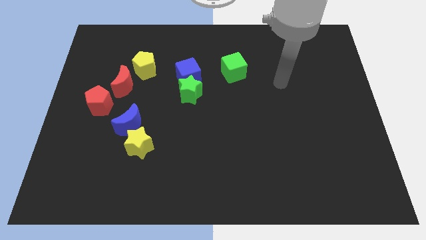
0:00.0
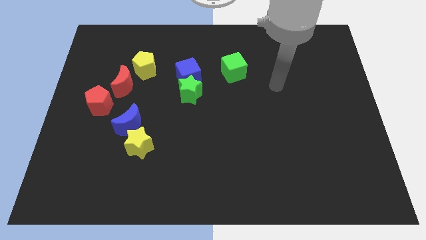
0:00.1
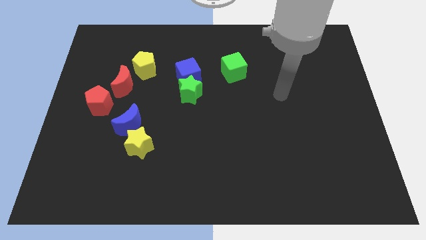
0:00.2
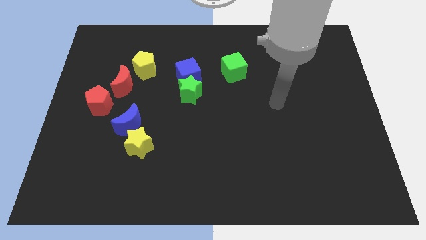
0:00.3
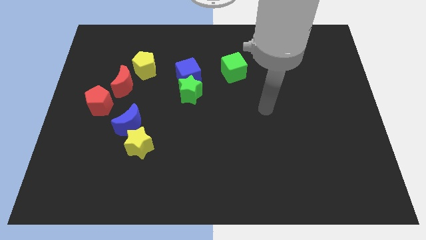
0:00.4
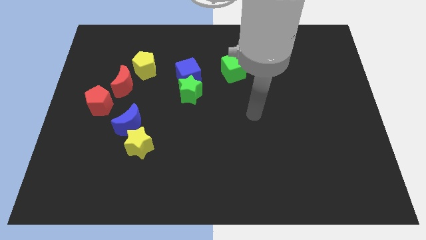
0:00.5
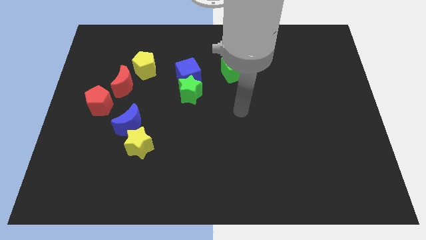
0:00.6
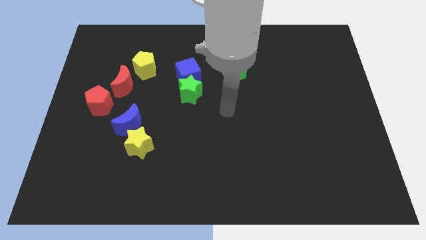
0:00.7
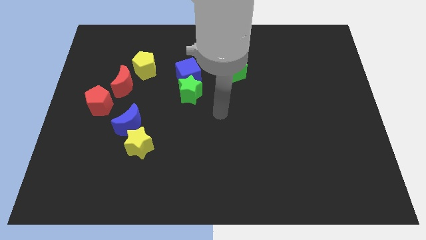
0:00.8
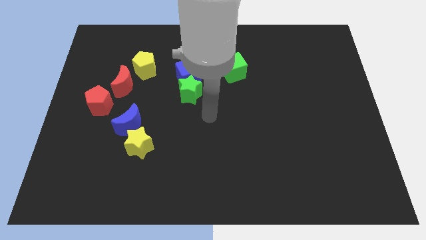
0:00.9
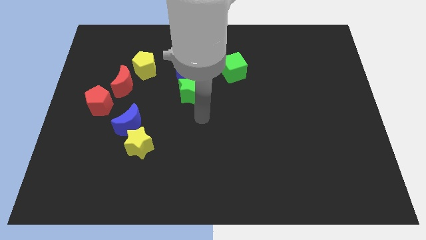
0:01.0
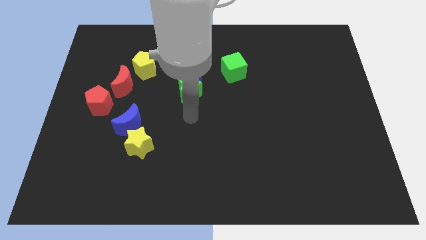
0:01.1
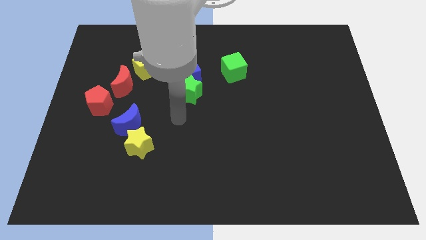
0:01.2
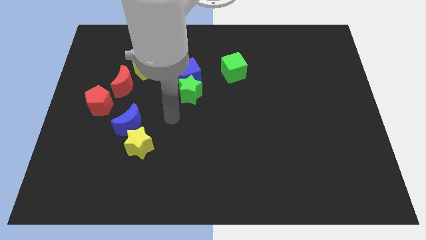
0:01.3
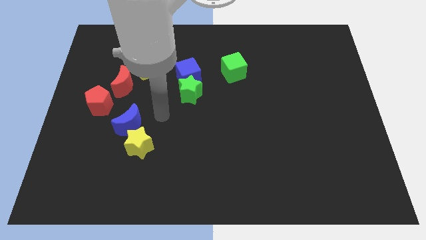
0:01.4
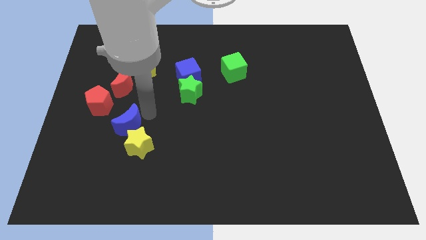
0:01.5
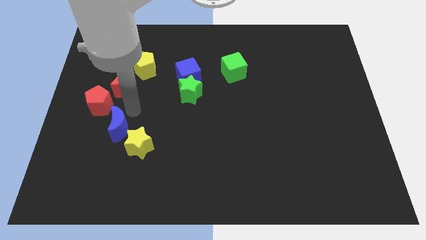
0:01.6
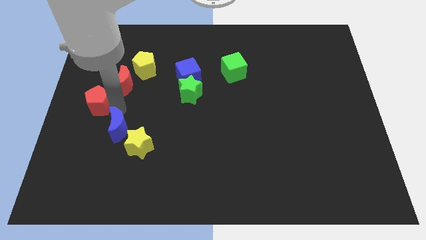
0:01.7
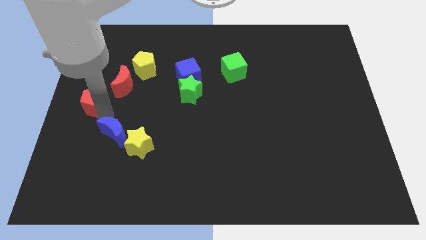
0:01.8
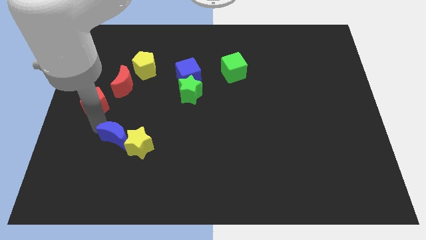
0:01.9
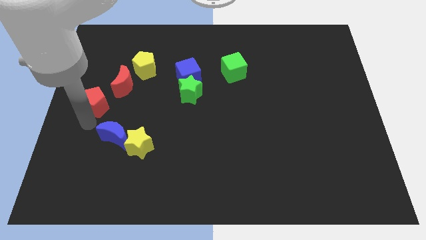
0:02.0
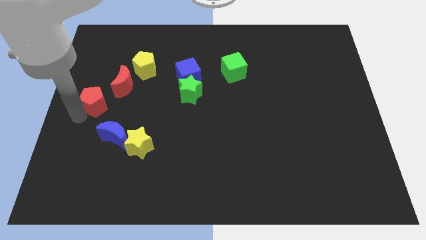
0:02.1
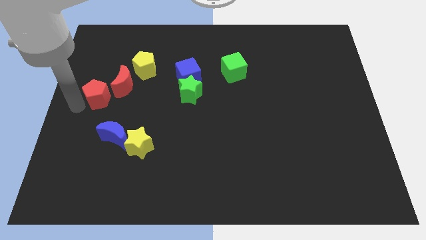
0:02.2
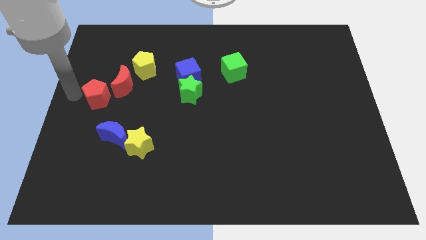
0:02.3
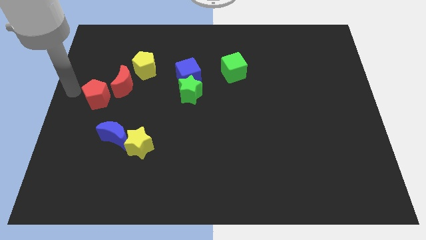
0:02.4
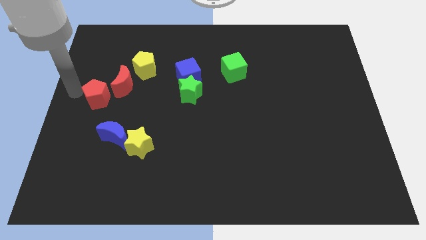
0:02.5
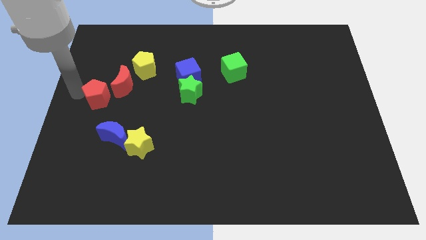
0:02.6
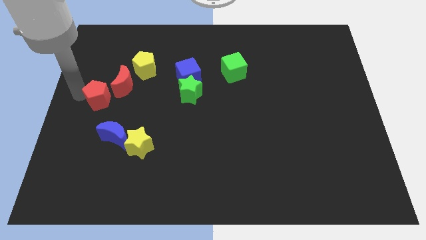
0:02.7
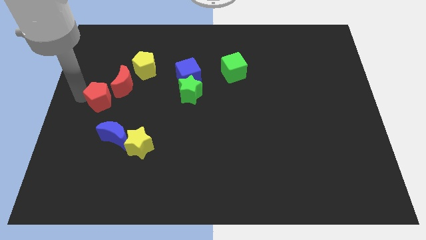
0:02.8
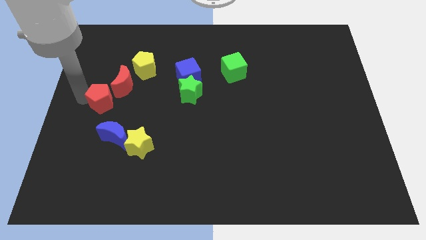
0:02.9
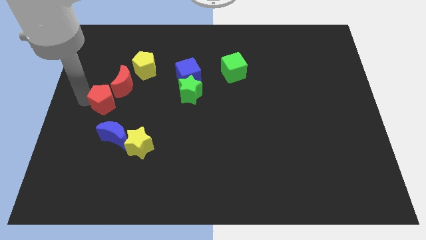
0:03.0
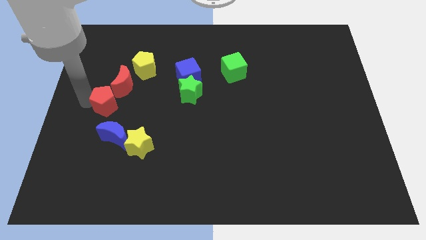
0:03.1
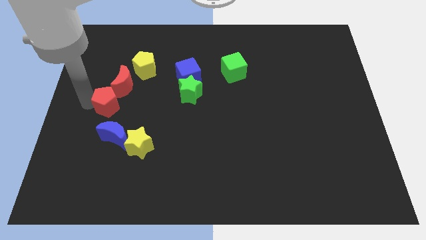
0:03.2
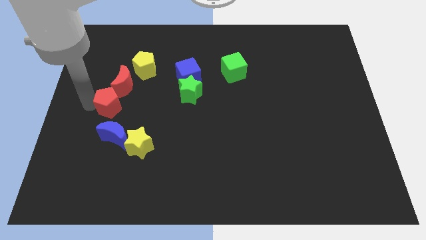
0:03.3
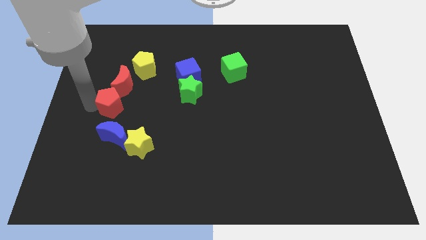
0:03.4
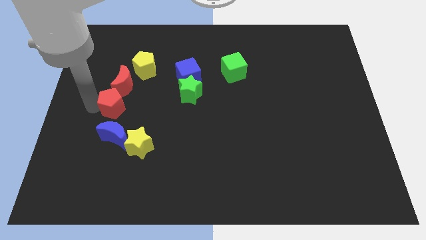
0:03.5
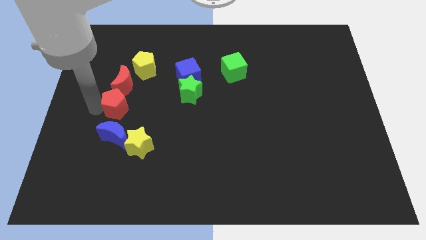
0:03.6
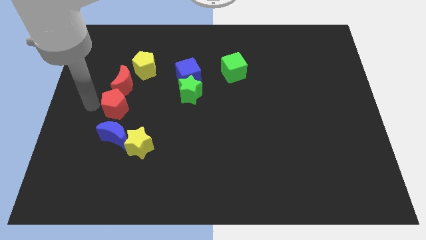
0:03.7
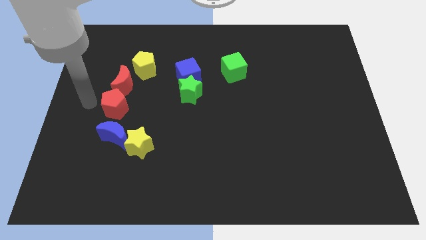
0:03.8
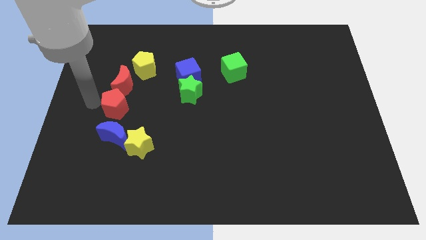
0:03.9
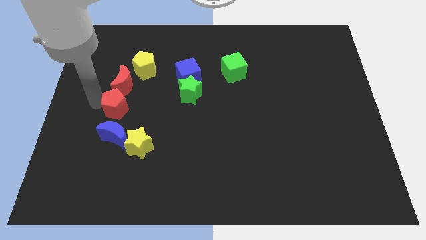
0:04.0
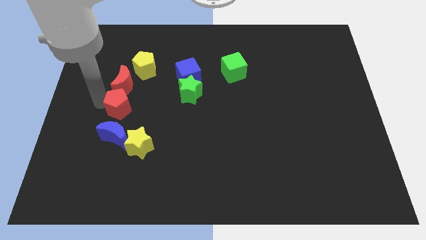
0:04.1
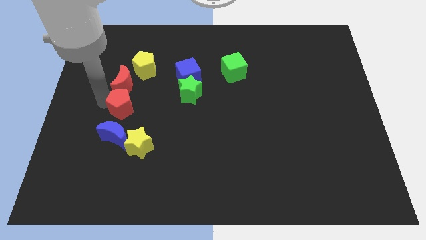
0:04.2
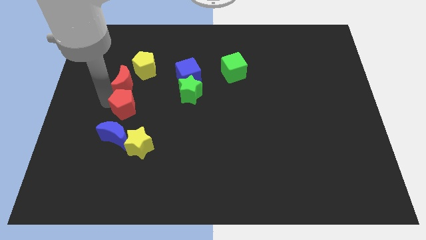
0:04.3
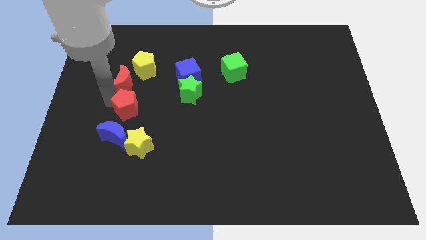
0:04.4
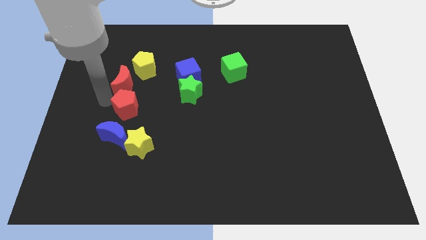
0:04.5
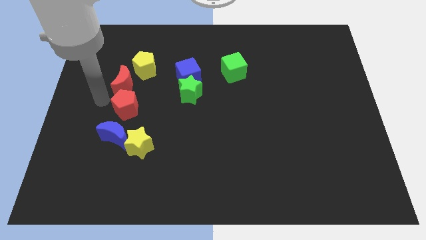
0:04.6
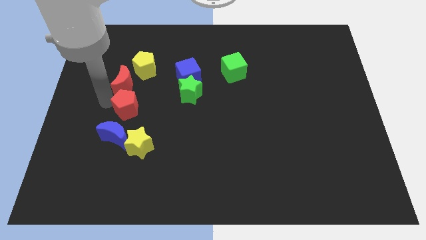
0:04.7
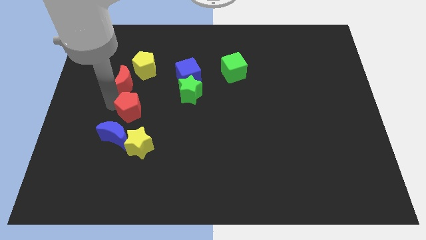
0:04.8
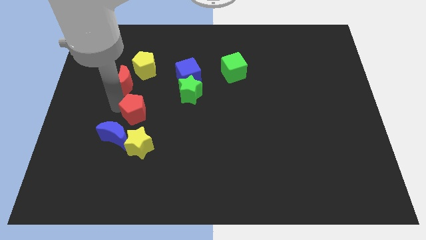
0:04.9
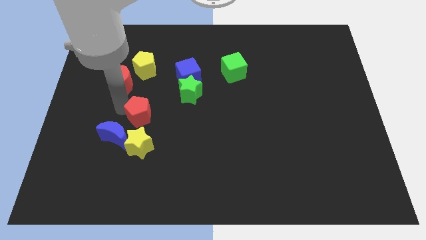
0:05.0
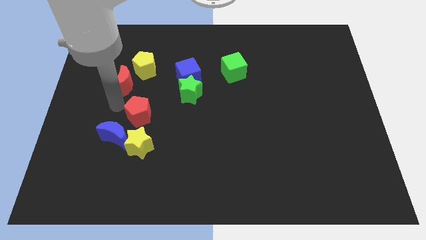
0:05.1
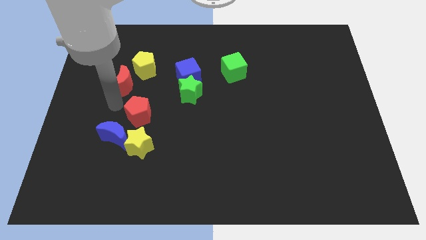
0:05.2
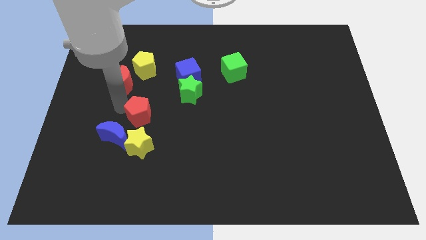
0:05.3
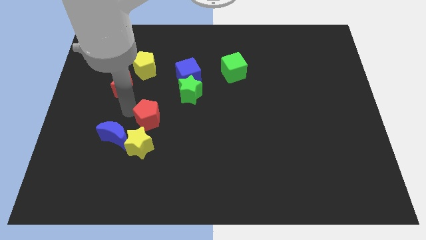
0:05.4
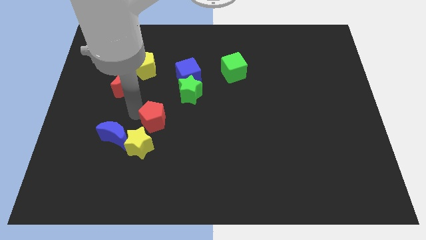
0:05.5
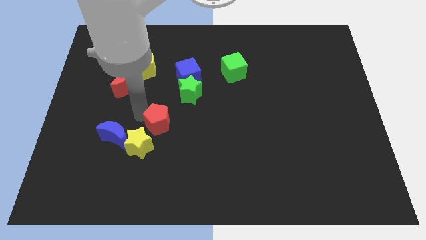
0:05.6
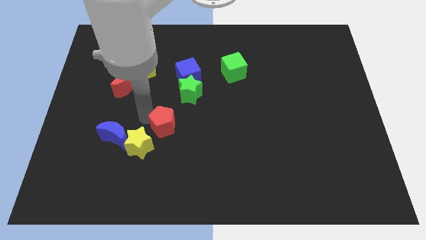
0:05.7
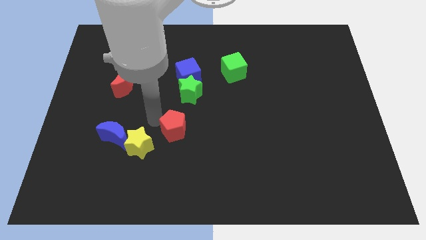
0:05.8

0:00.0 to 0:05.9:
move the red pentagon right of the yellow star
